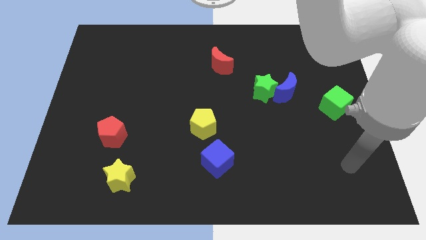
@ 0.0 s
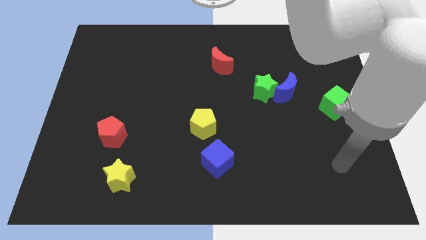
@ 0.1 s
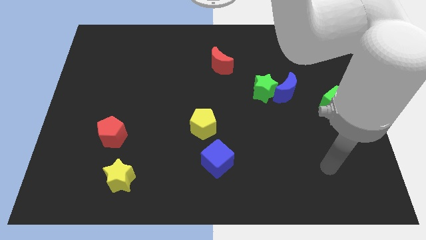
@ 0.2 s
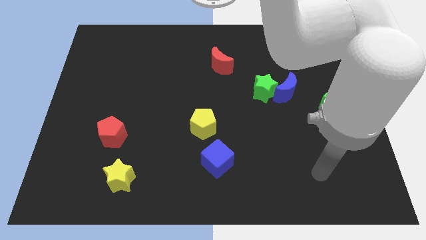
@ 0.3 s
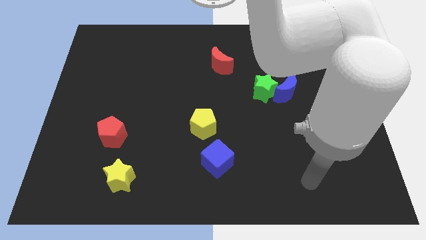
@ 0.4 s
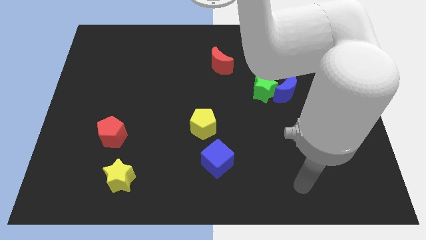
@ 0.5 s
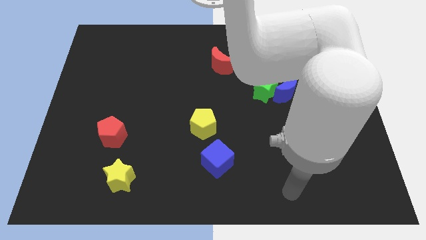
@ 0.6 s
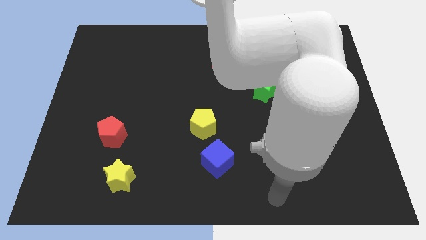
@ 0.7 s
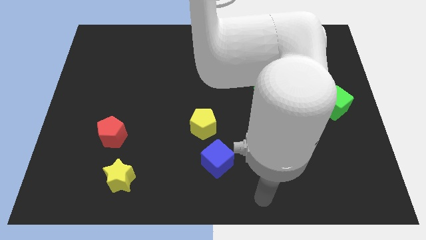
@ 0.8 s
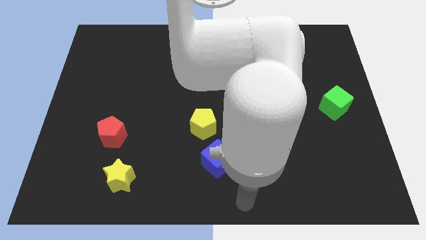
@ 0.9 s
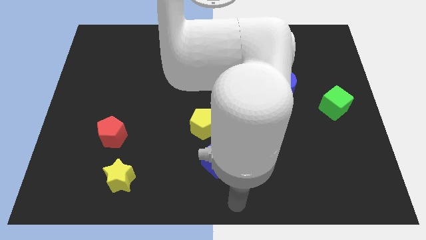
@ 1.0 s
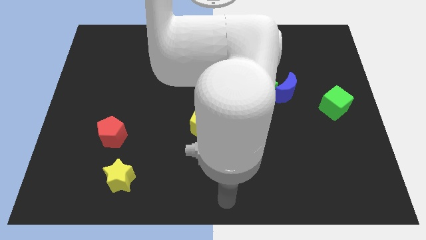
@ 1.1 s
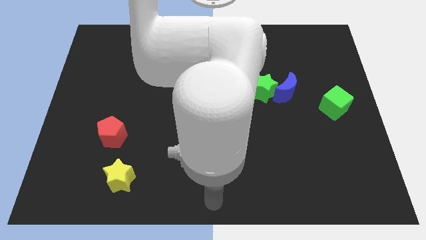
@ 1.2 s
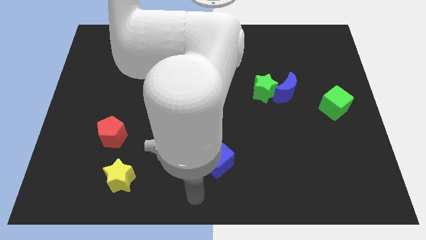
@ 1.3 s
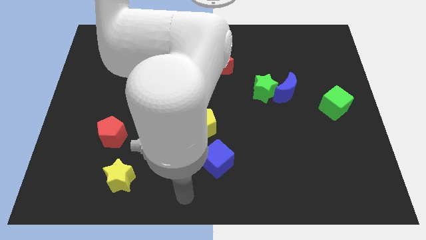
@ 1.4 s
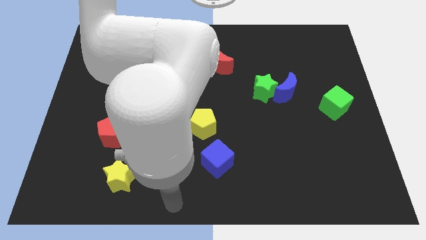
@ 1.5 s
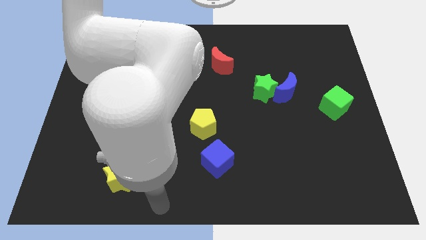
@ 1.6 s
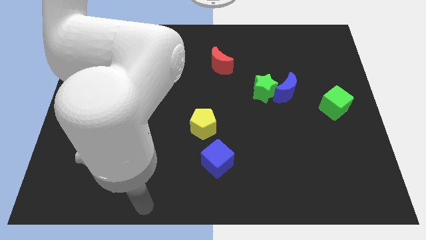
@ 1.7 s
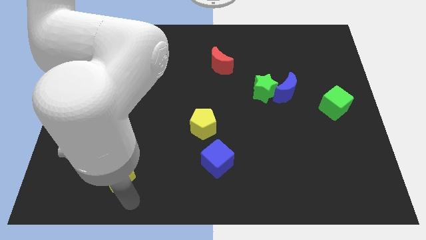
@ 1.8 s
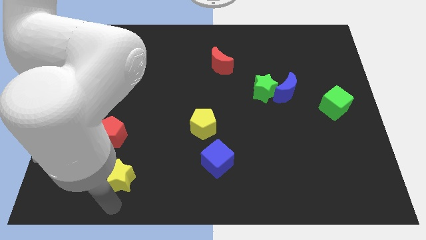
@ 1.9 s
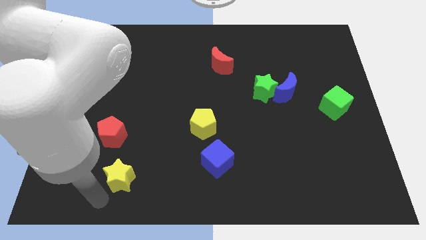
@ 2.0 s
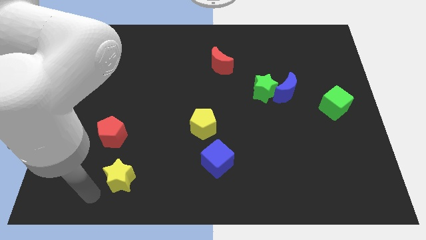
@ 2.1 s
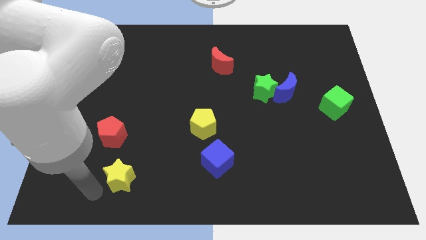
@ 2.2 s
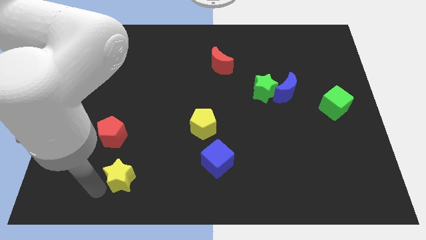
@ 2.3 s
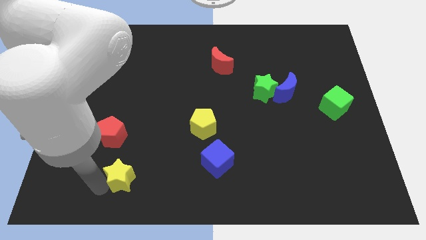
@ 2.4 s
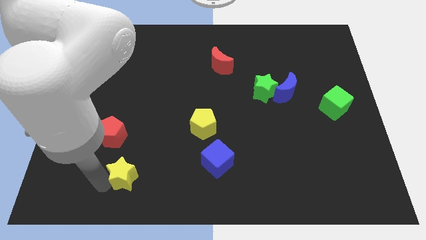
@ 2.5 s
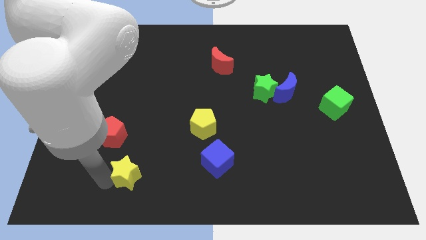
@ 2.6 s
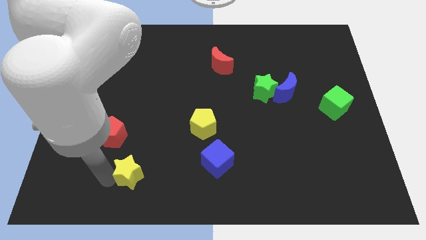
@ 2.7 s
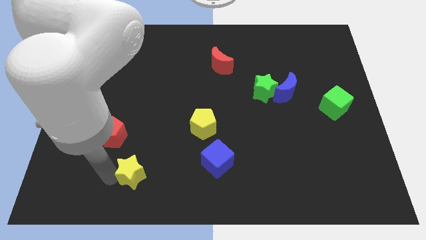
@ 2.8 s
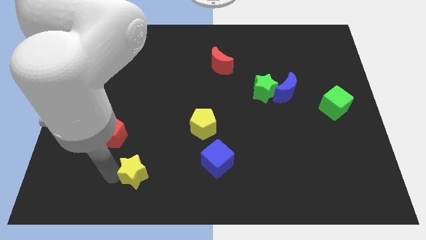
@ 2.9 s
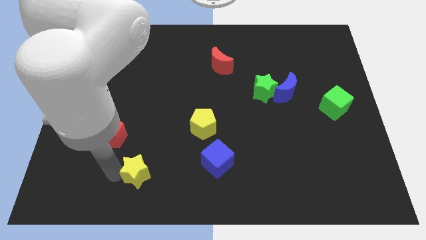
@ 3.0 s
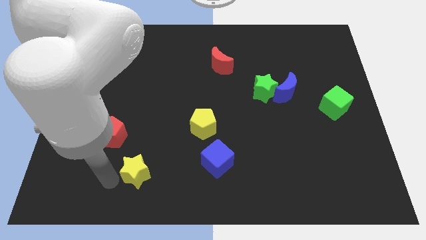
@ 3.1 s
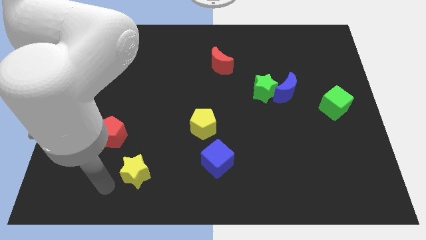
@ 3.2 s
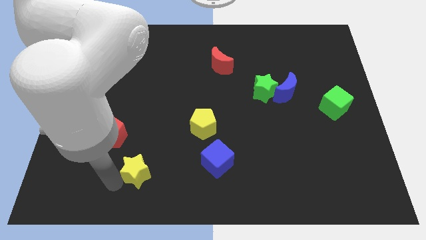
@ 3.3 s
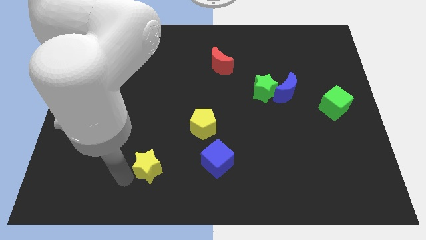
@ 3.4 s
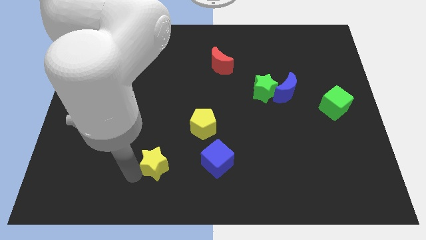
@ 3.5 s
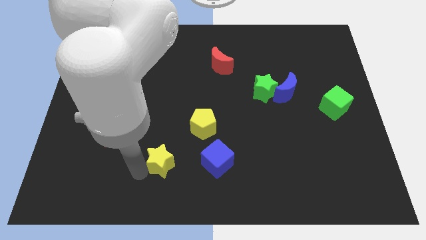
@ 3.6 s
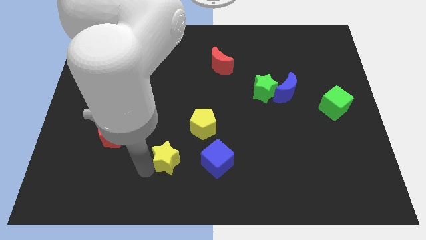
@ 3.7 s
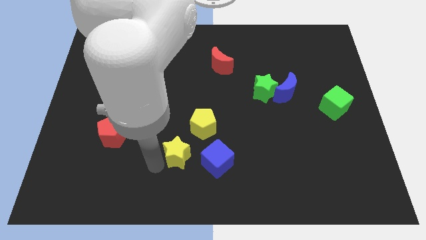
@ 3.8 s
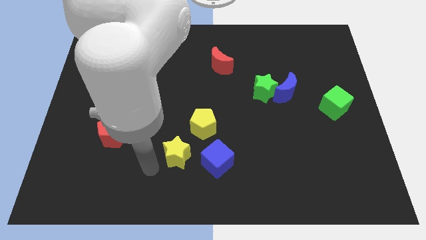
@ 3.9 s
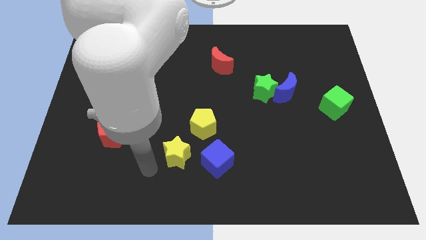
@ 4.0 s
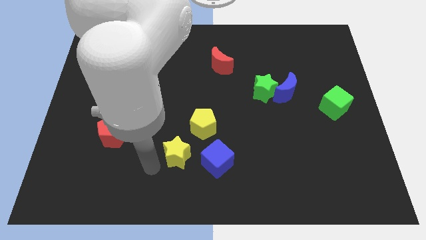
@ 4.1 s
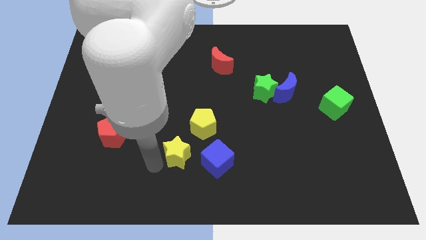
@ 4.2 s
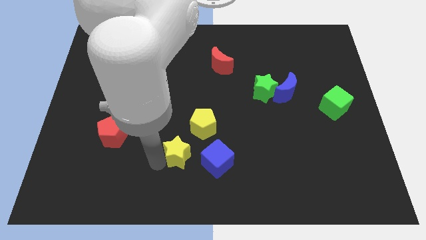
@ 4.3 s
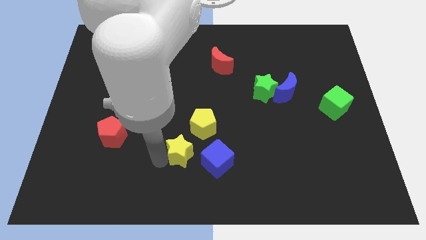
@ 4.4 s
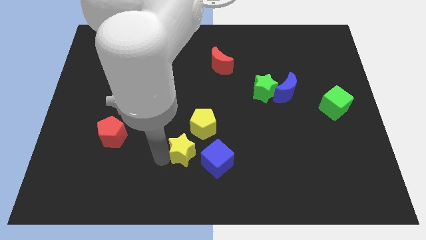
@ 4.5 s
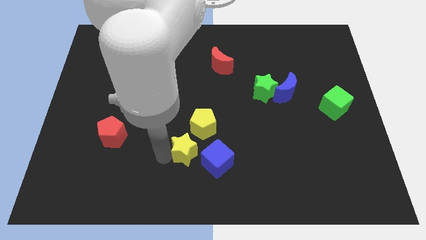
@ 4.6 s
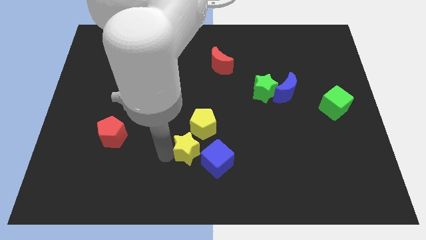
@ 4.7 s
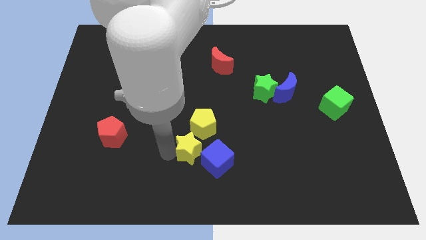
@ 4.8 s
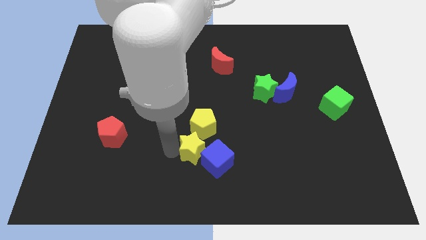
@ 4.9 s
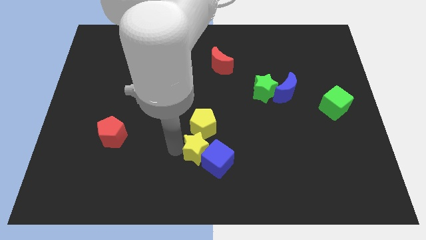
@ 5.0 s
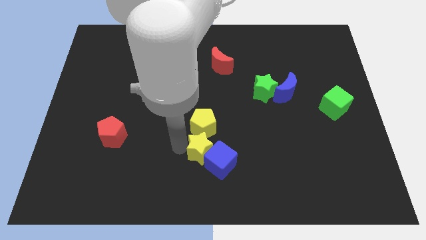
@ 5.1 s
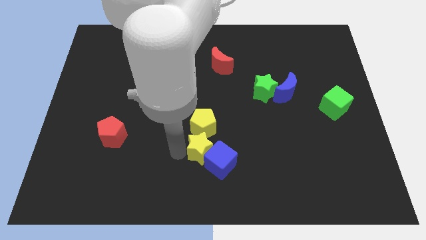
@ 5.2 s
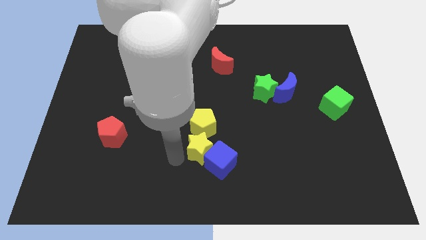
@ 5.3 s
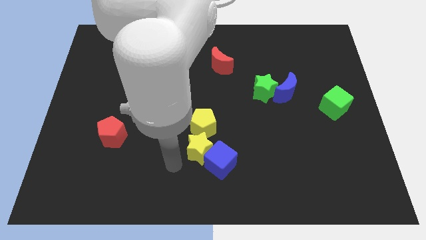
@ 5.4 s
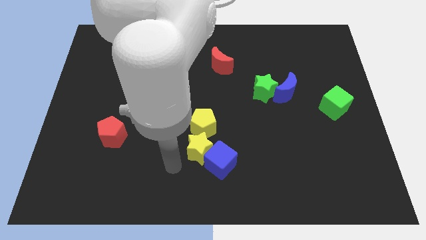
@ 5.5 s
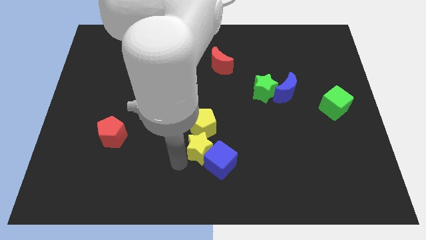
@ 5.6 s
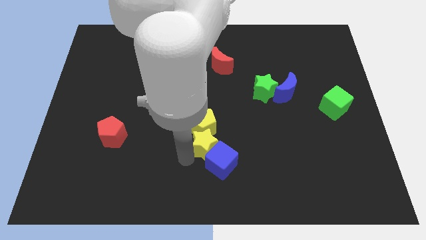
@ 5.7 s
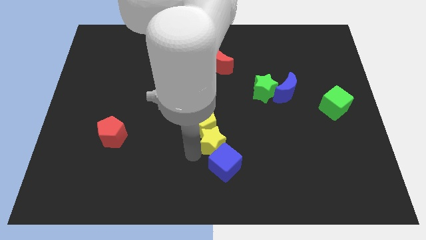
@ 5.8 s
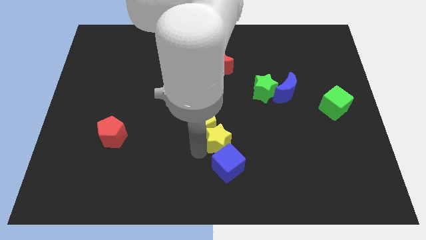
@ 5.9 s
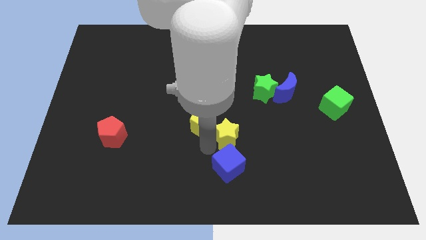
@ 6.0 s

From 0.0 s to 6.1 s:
slide the yellow star to the right side of the yellow pentagon
